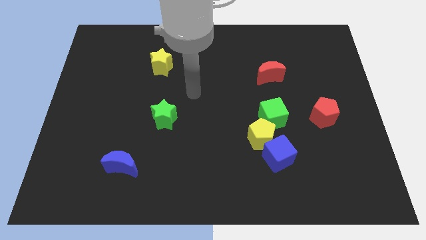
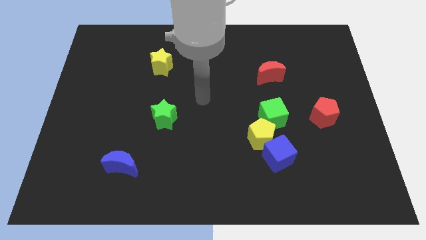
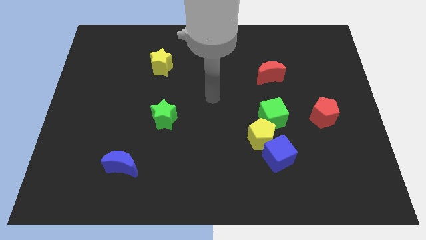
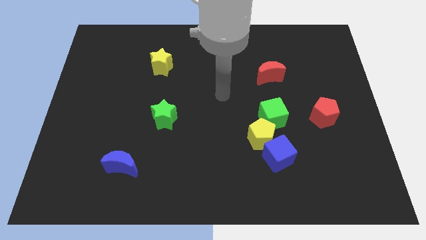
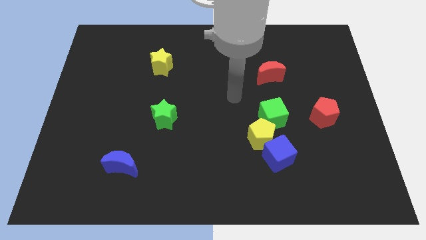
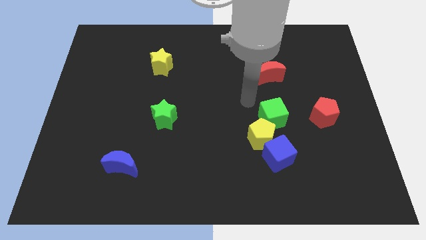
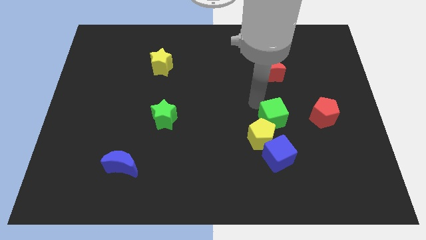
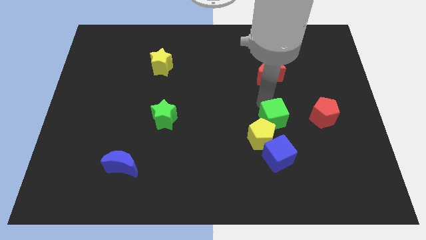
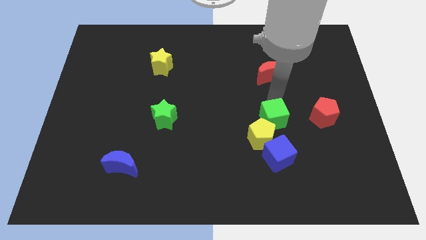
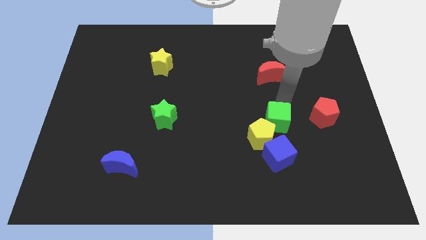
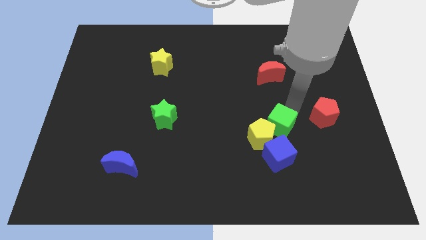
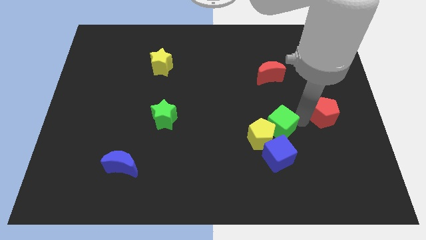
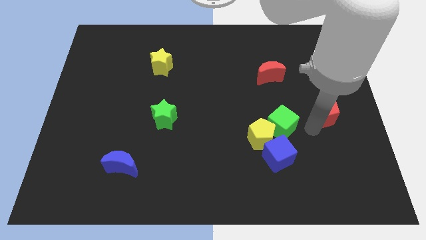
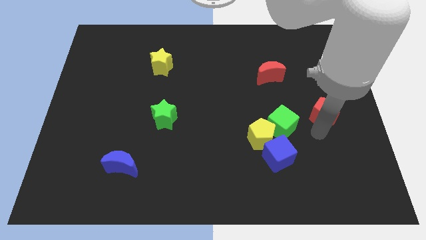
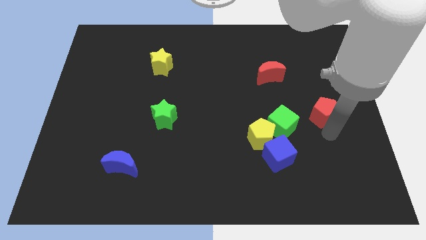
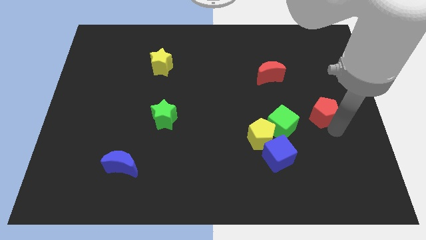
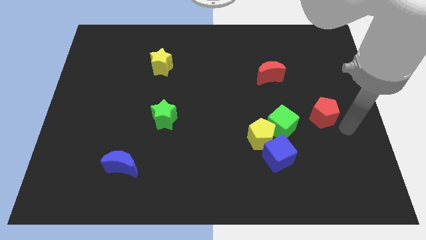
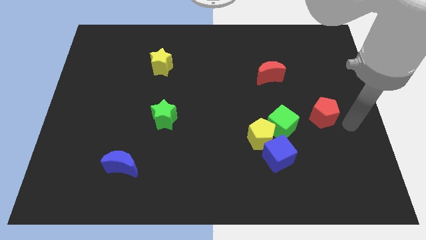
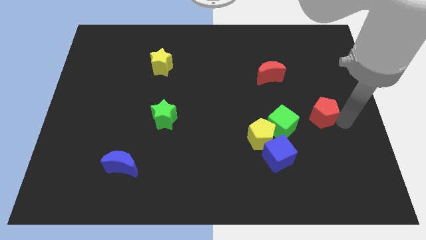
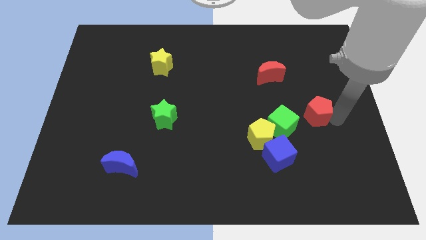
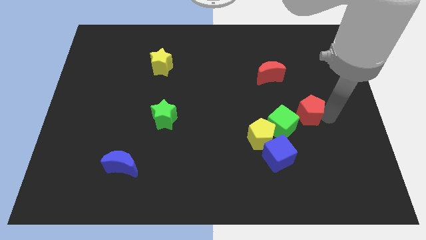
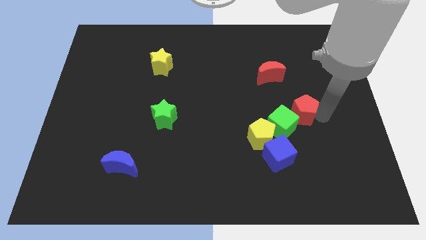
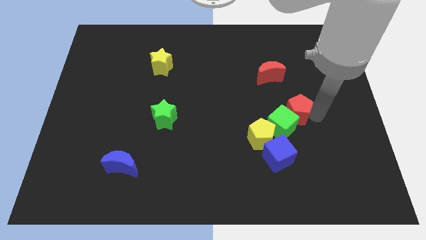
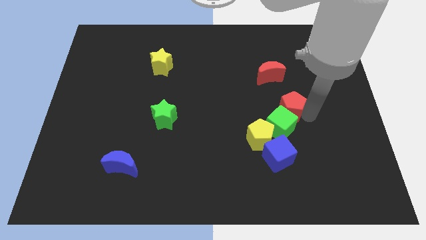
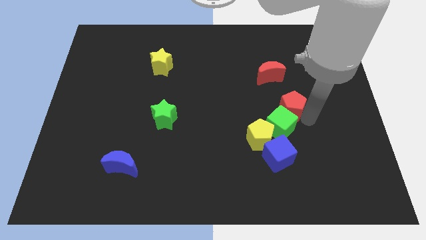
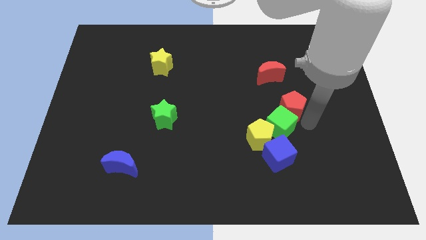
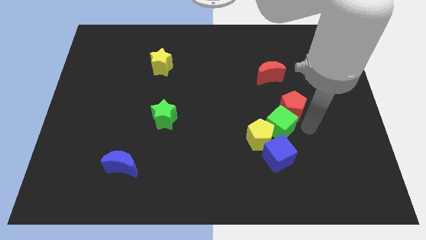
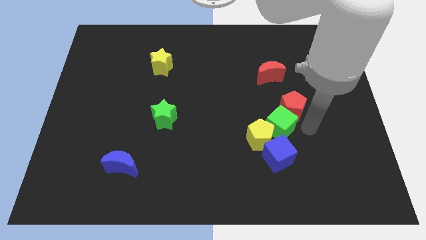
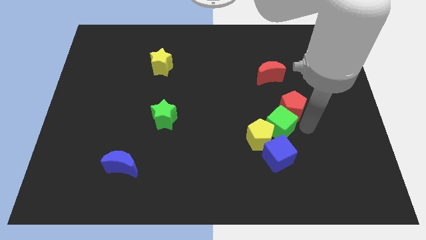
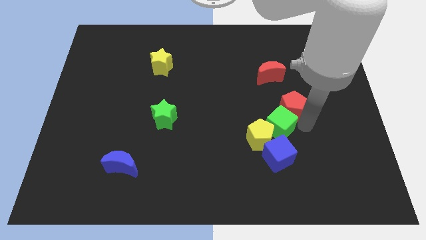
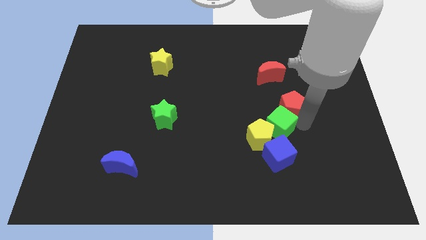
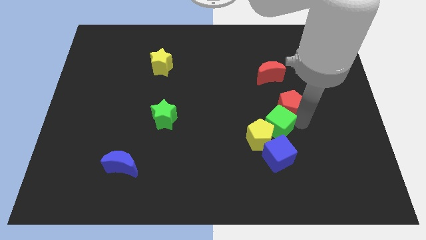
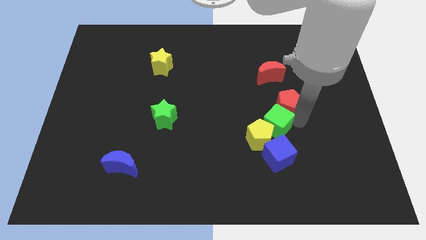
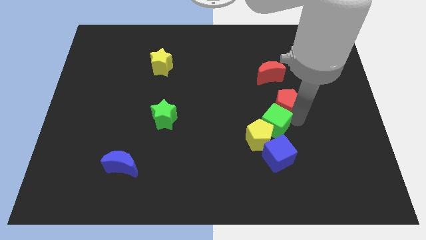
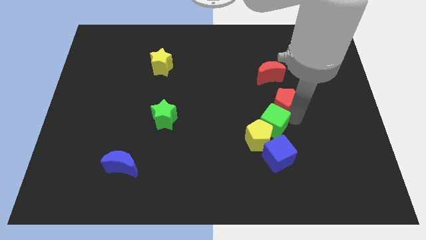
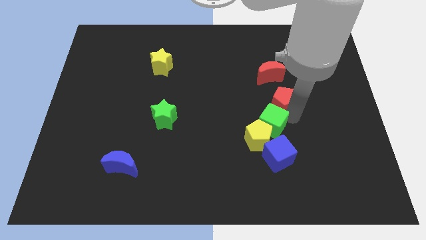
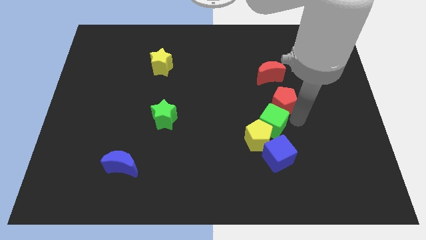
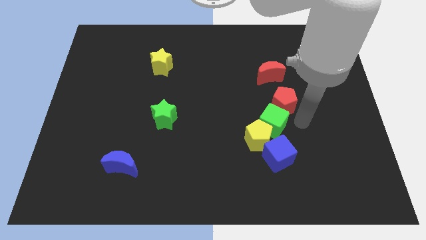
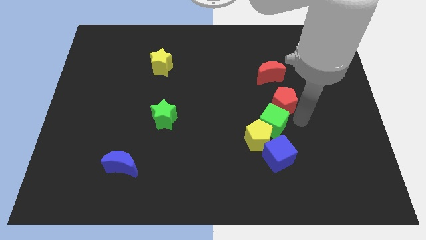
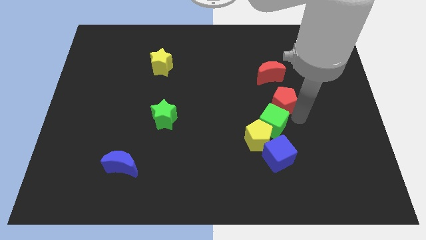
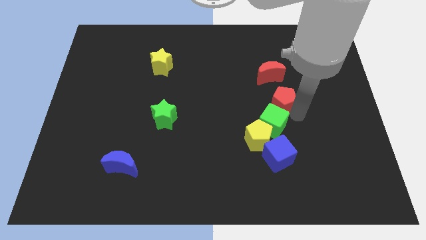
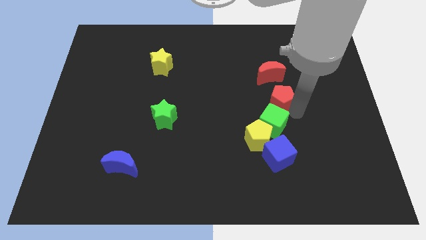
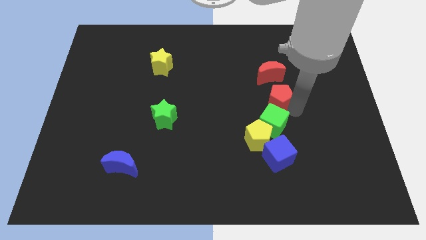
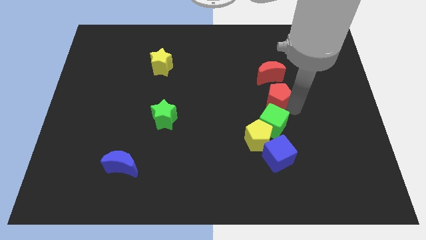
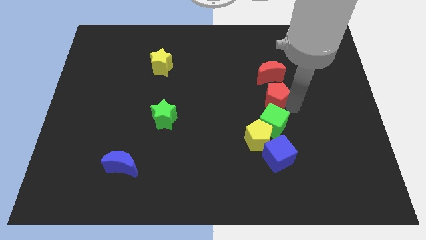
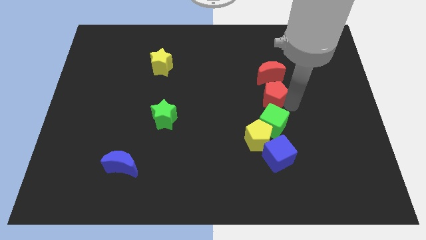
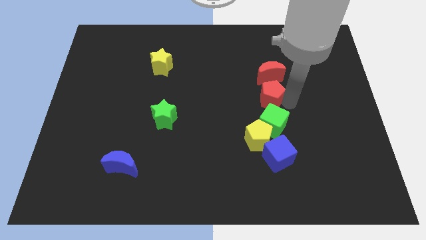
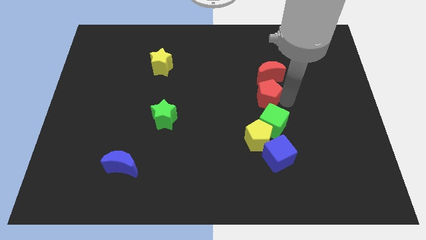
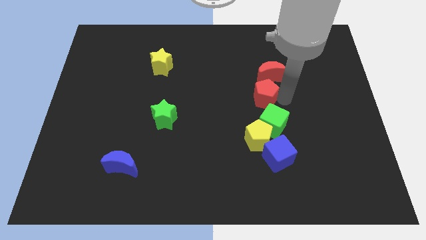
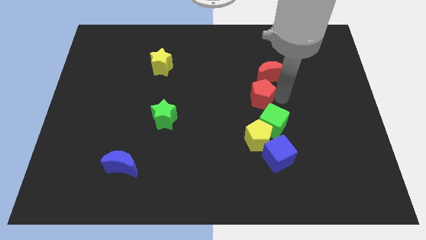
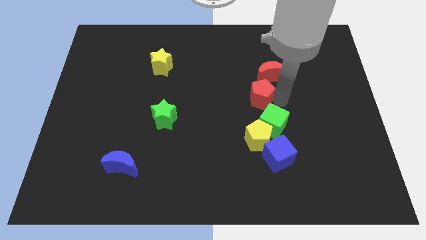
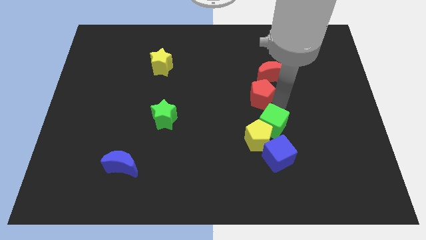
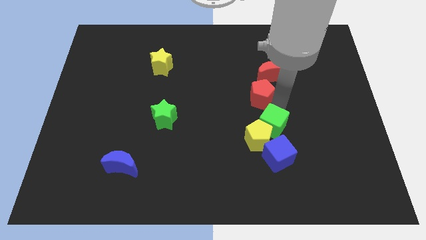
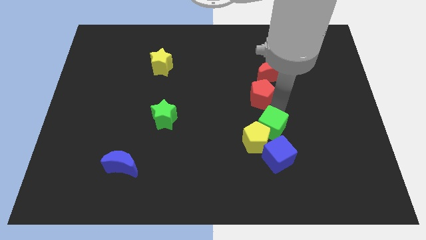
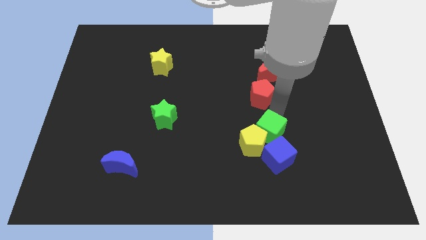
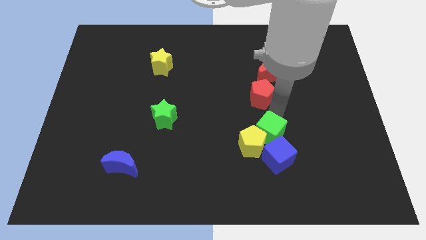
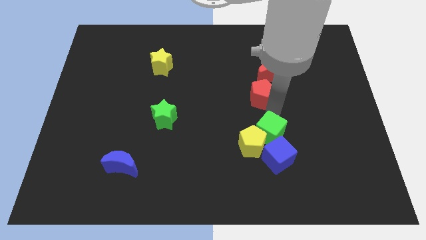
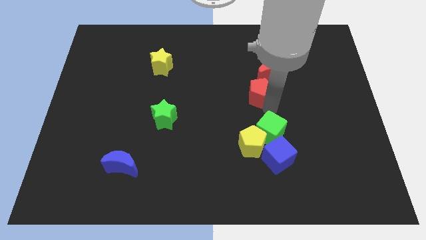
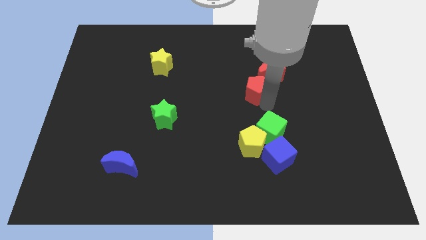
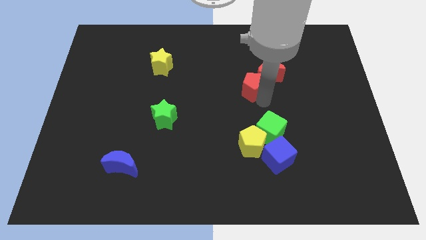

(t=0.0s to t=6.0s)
put the red pentagon to the left of the red moon
